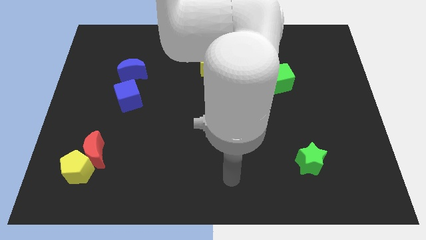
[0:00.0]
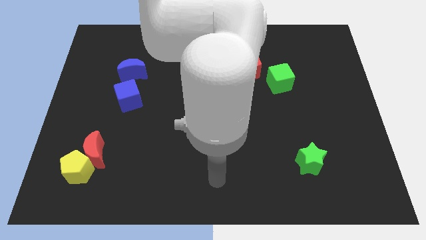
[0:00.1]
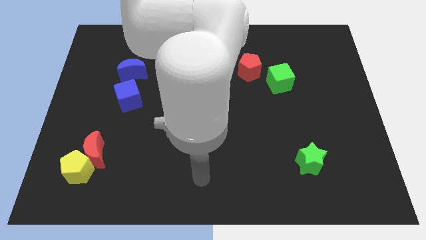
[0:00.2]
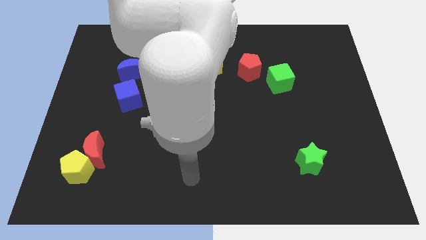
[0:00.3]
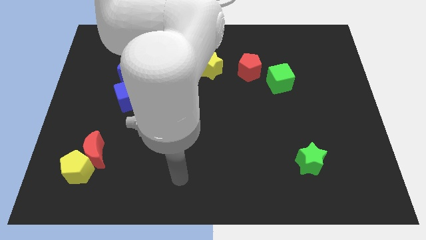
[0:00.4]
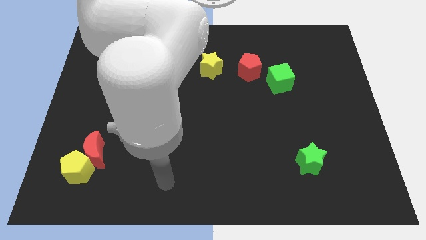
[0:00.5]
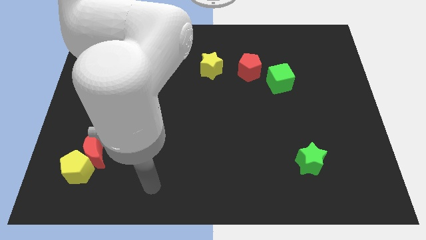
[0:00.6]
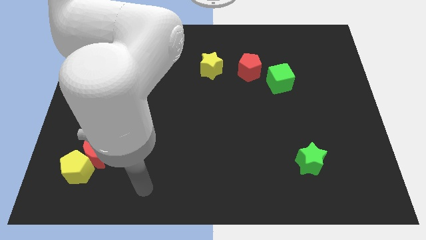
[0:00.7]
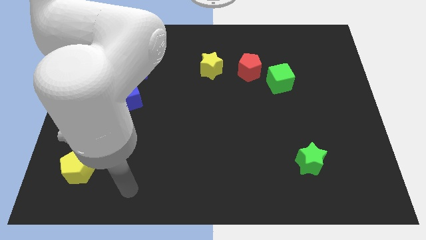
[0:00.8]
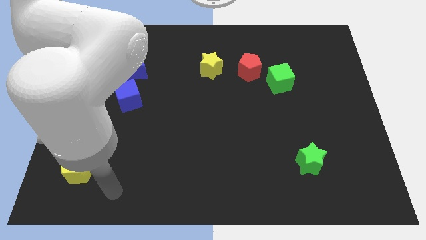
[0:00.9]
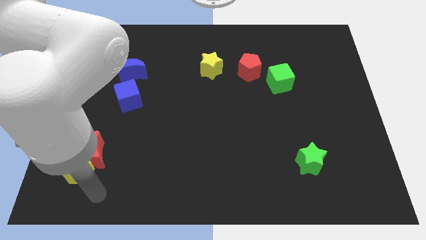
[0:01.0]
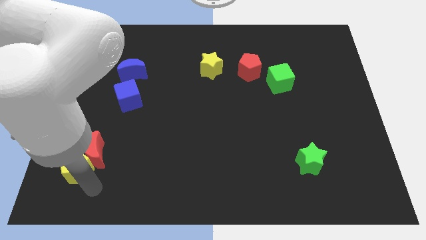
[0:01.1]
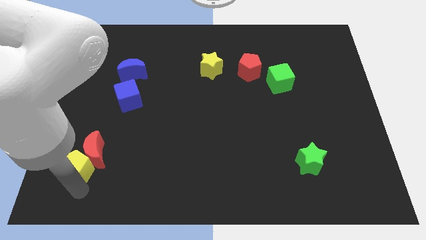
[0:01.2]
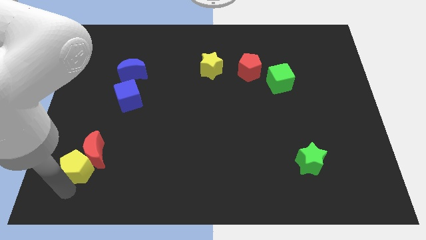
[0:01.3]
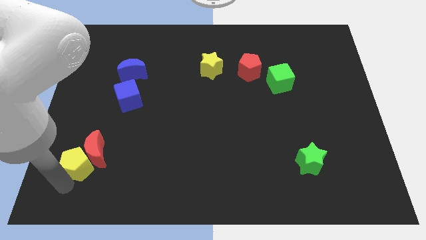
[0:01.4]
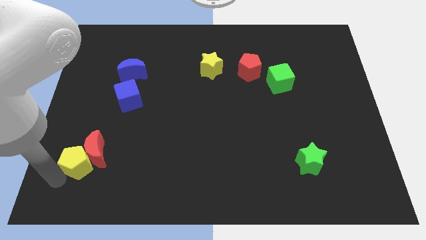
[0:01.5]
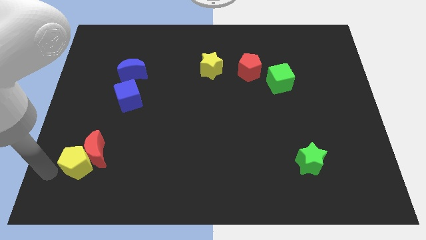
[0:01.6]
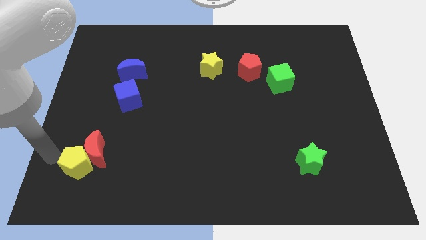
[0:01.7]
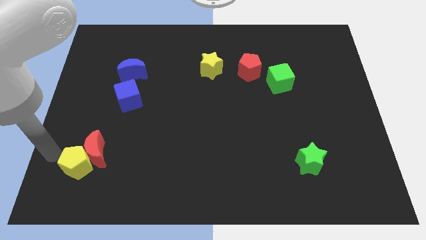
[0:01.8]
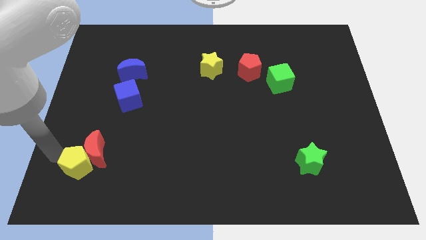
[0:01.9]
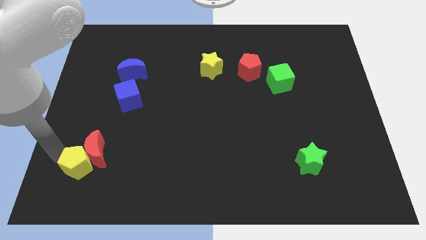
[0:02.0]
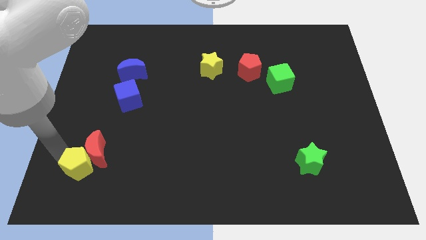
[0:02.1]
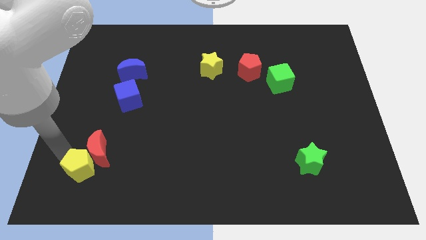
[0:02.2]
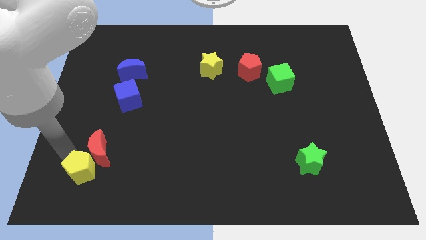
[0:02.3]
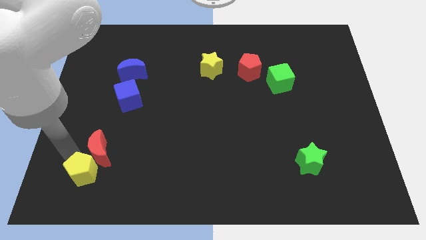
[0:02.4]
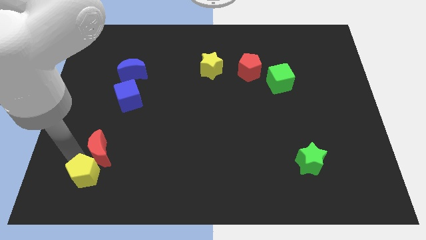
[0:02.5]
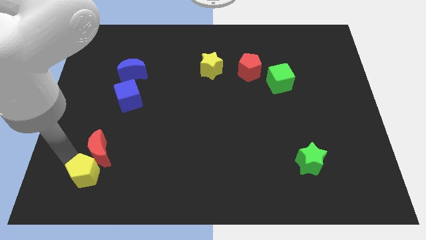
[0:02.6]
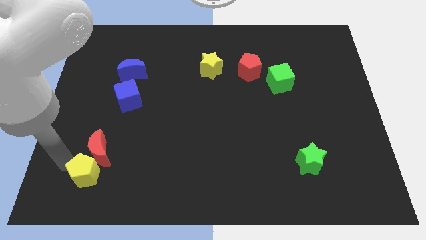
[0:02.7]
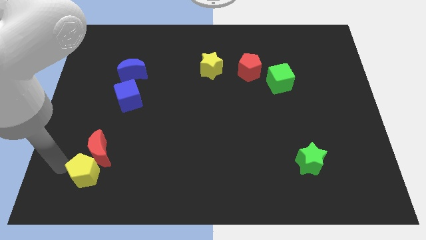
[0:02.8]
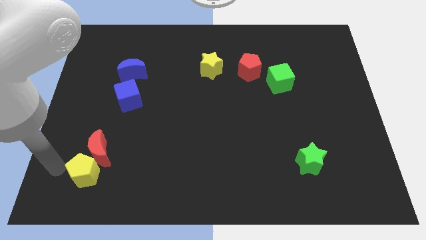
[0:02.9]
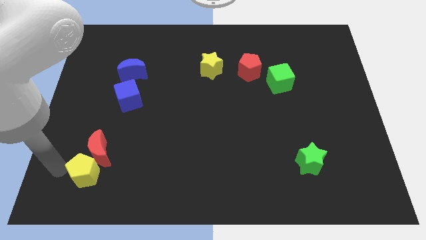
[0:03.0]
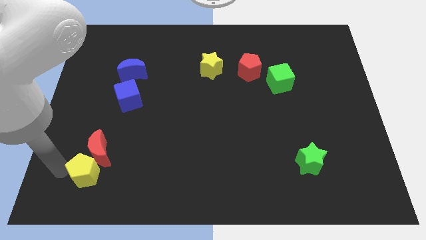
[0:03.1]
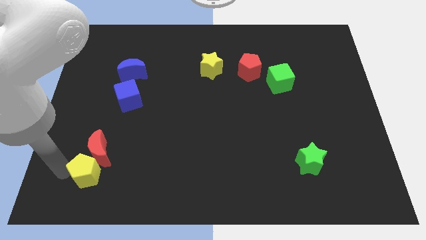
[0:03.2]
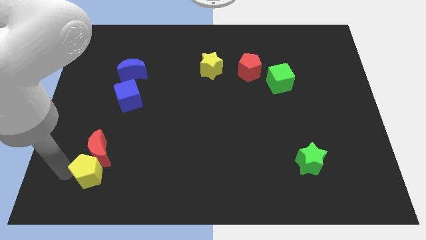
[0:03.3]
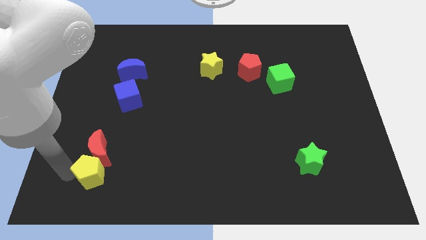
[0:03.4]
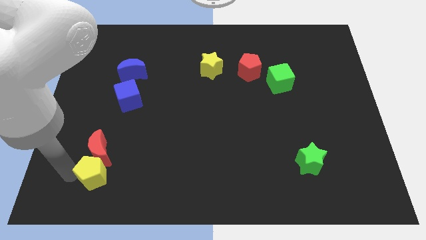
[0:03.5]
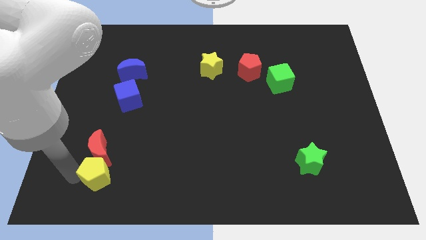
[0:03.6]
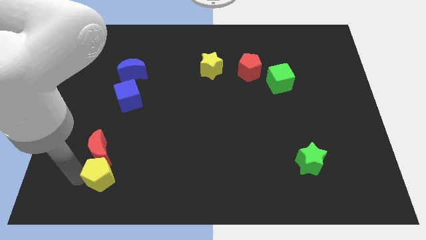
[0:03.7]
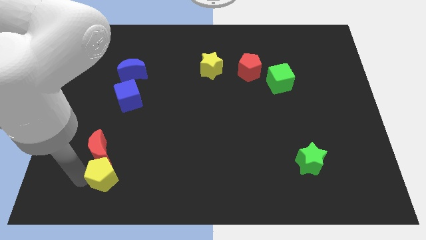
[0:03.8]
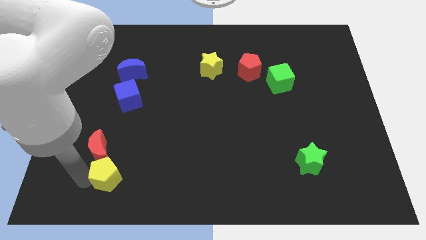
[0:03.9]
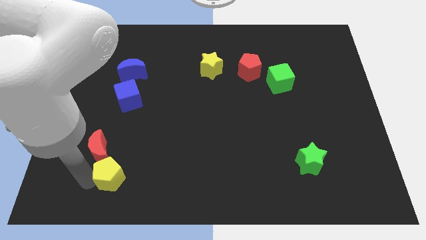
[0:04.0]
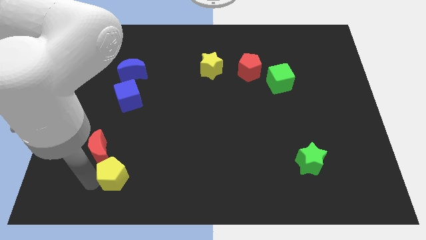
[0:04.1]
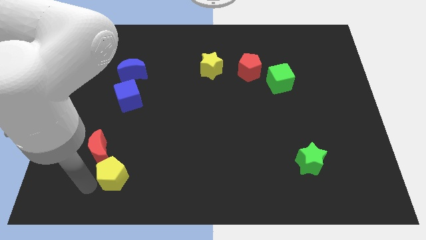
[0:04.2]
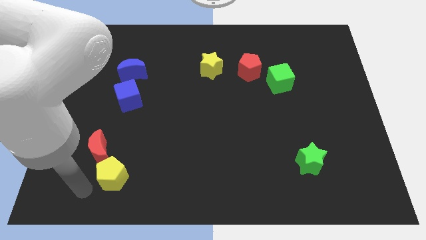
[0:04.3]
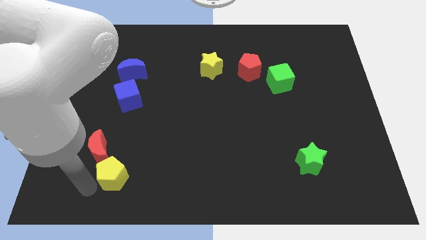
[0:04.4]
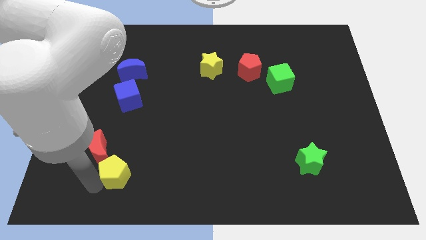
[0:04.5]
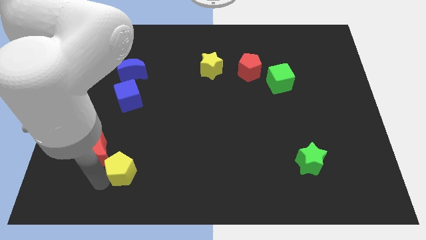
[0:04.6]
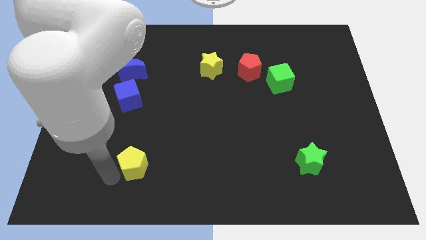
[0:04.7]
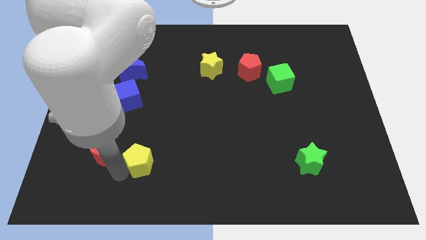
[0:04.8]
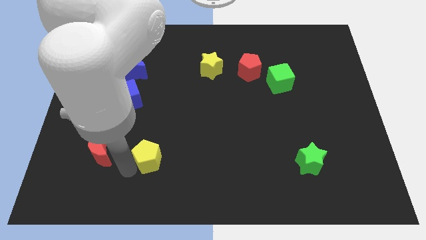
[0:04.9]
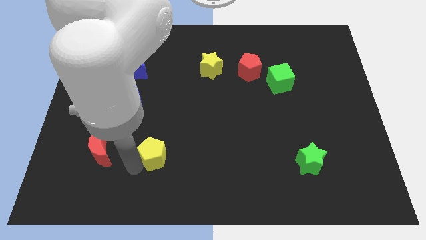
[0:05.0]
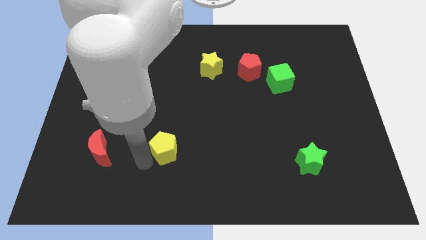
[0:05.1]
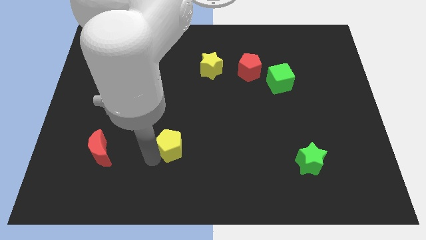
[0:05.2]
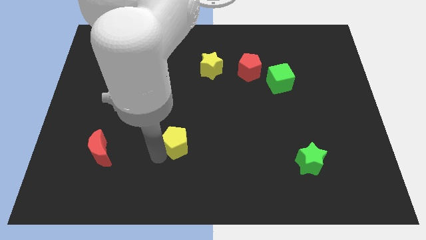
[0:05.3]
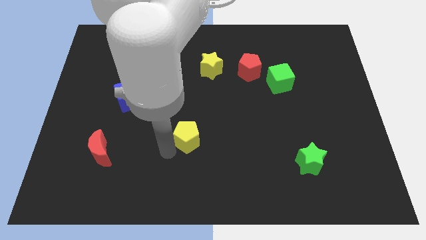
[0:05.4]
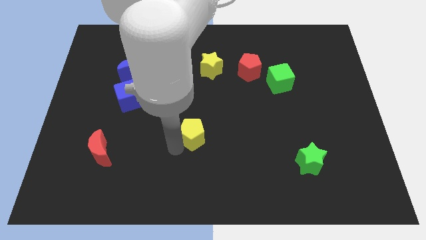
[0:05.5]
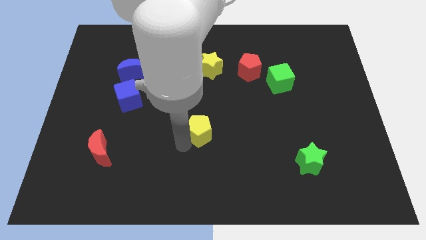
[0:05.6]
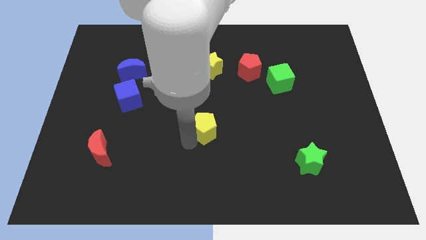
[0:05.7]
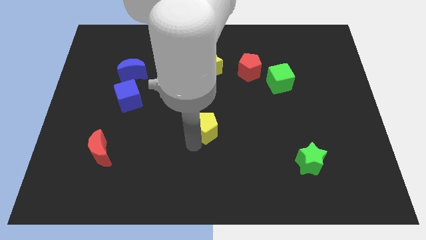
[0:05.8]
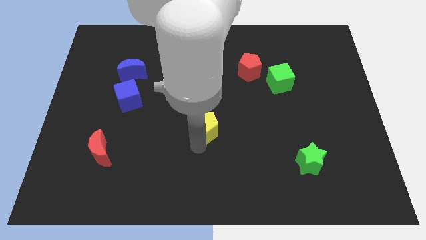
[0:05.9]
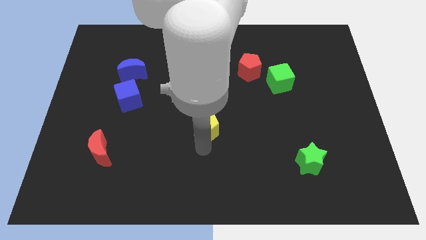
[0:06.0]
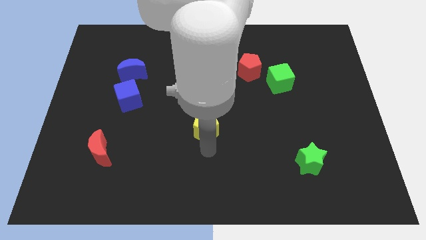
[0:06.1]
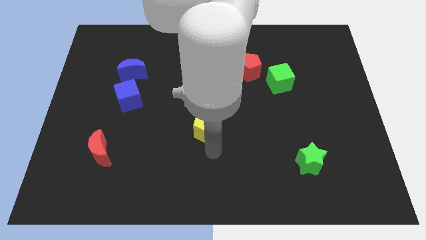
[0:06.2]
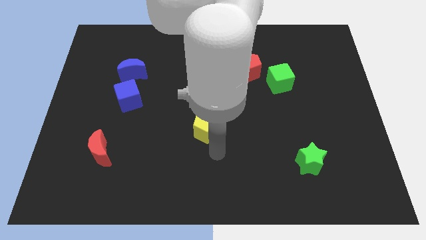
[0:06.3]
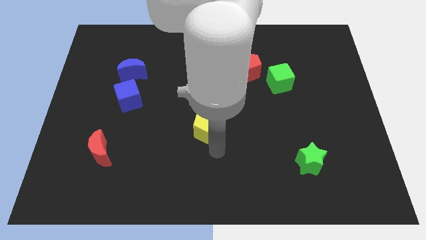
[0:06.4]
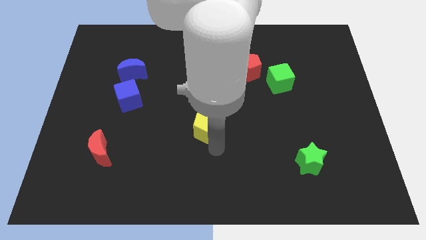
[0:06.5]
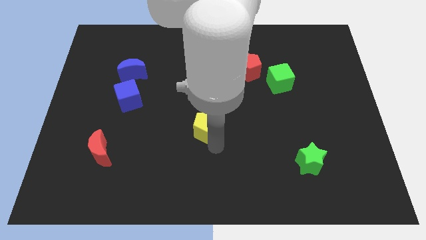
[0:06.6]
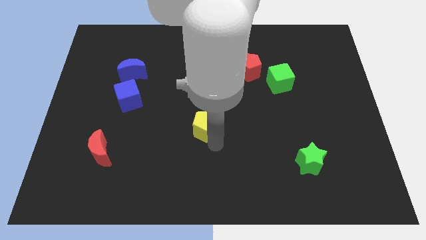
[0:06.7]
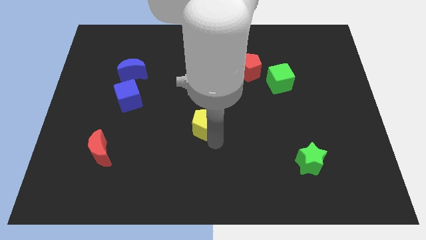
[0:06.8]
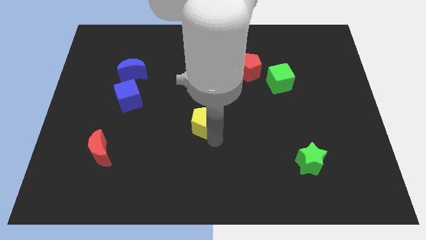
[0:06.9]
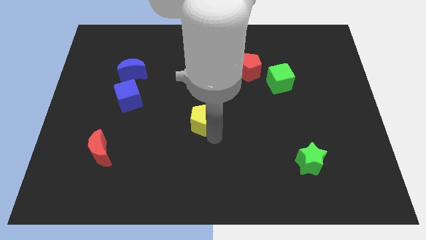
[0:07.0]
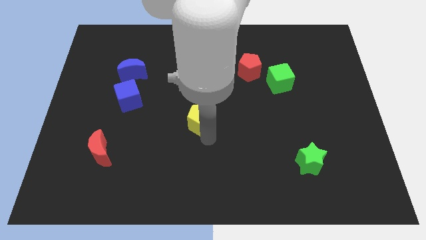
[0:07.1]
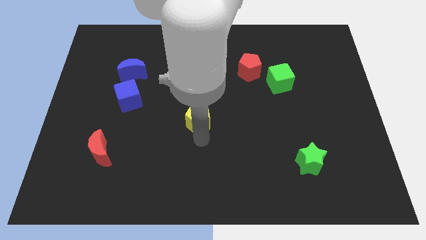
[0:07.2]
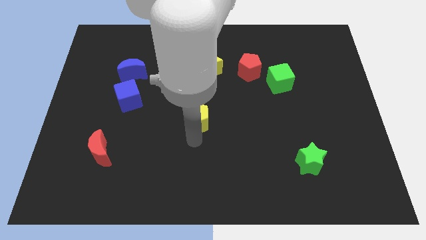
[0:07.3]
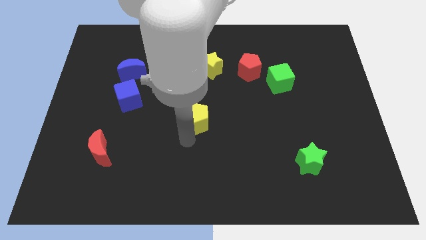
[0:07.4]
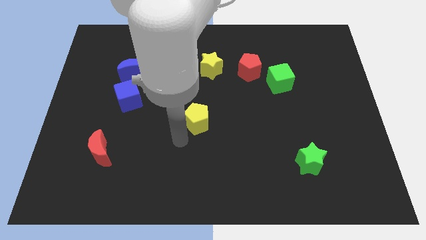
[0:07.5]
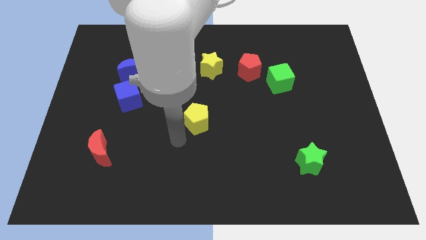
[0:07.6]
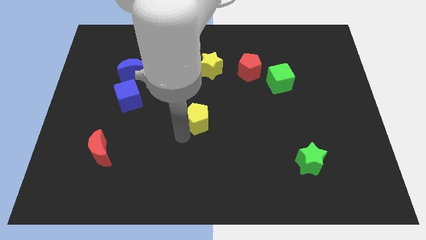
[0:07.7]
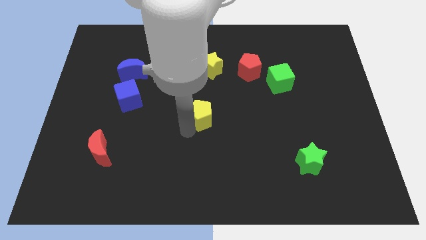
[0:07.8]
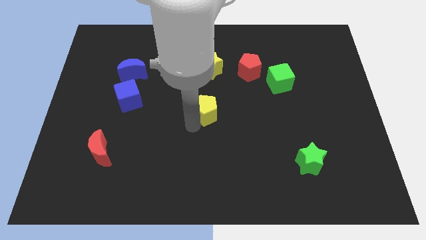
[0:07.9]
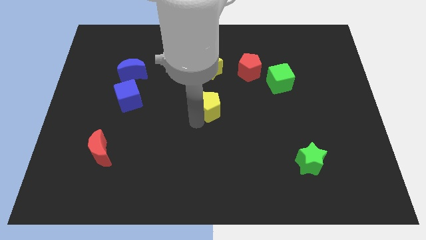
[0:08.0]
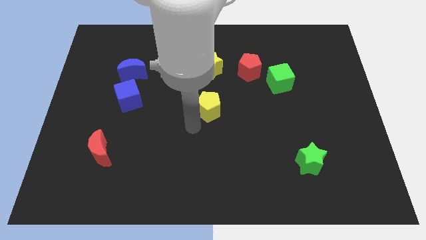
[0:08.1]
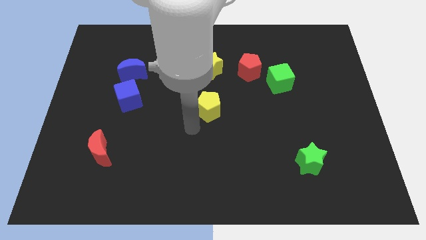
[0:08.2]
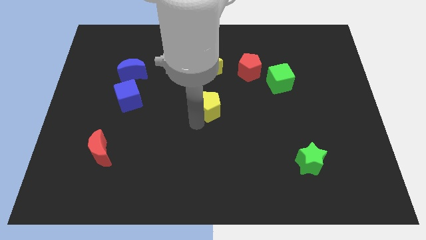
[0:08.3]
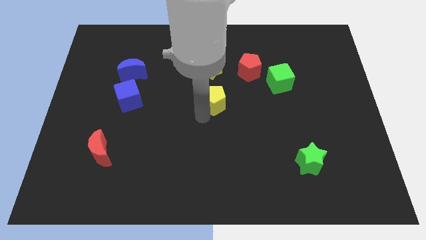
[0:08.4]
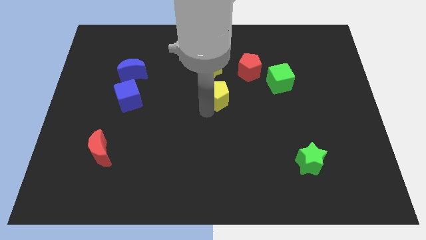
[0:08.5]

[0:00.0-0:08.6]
move the yellow pentagon diagonally down and to the left of the red pentagon
